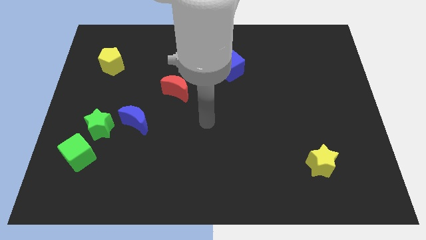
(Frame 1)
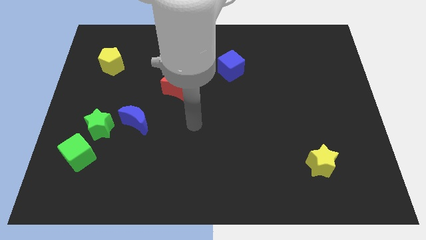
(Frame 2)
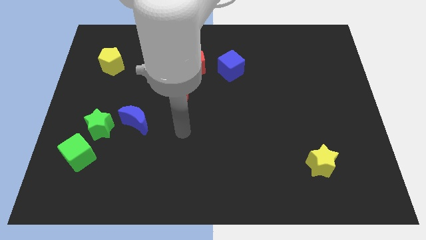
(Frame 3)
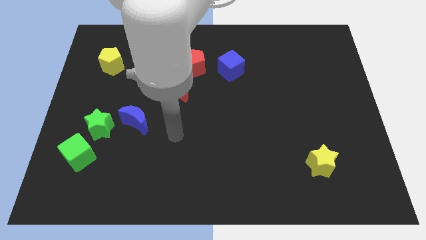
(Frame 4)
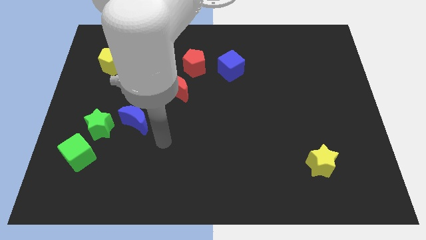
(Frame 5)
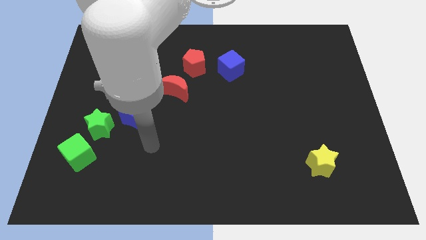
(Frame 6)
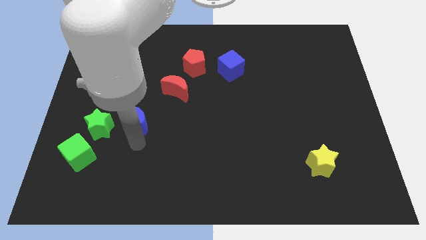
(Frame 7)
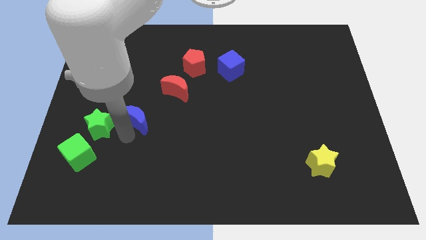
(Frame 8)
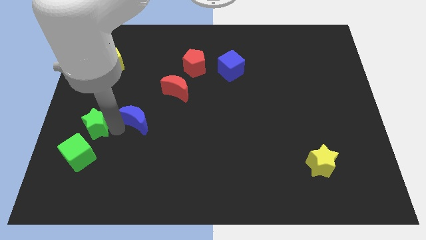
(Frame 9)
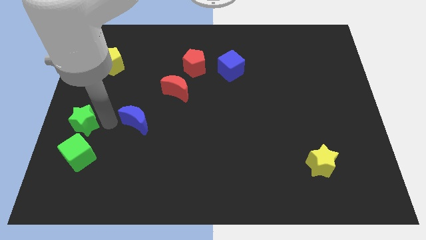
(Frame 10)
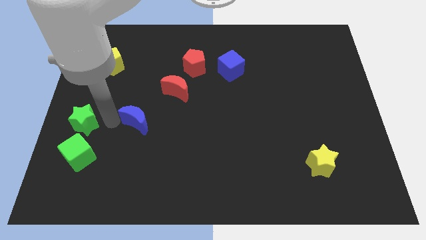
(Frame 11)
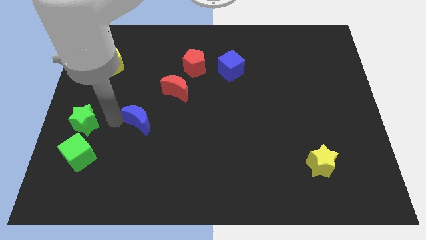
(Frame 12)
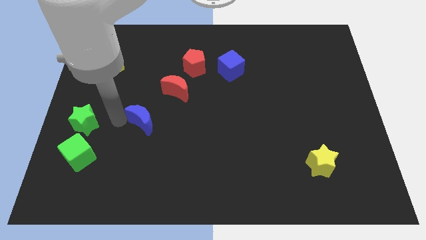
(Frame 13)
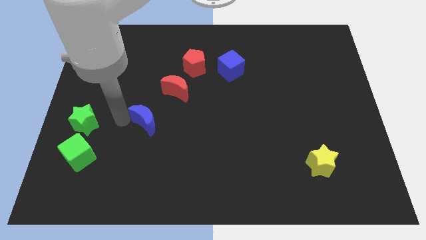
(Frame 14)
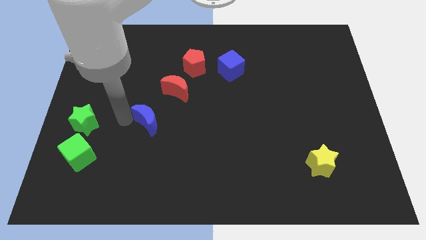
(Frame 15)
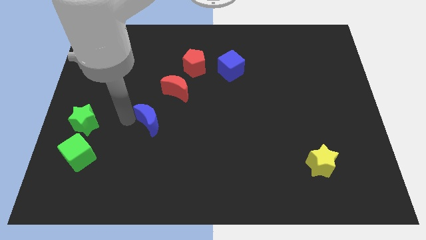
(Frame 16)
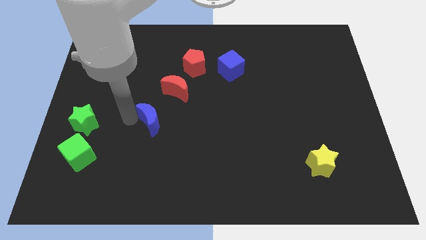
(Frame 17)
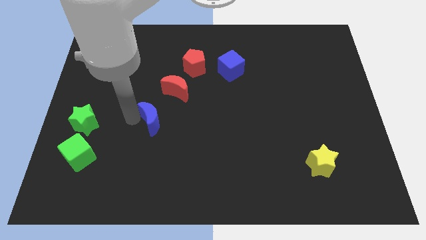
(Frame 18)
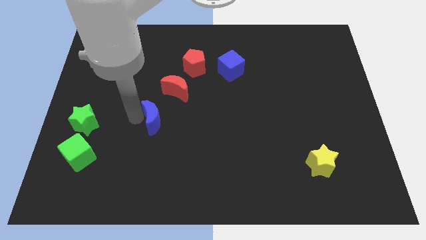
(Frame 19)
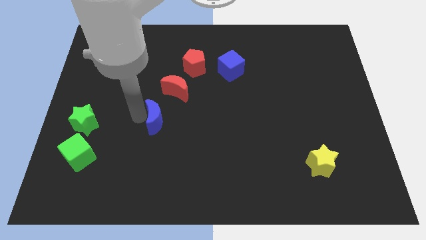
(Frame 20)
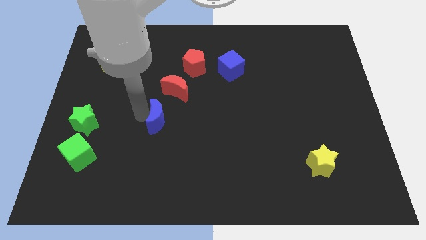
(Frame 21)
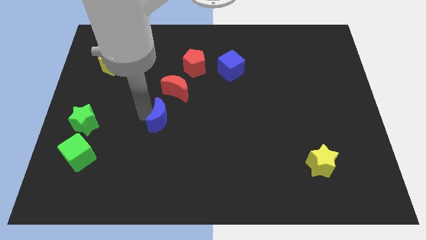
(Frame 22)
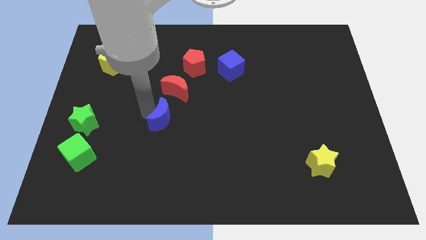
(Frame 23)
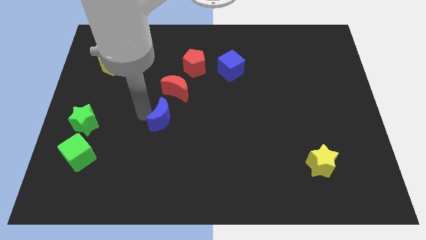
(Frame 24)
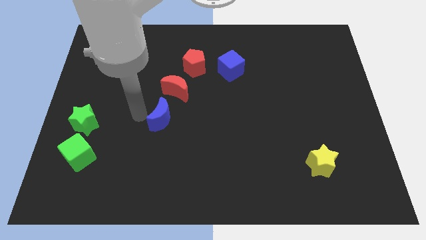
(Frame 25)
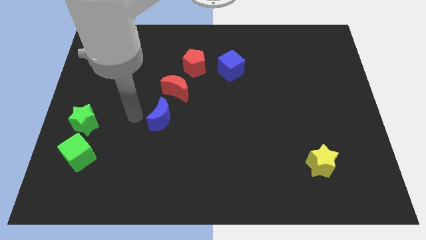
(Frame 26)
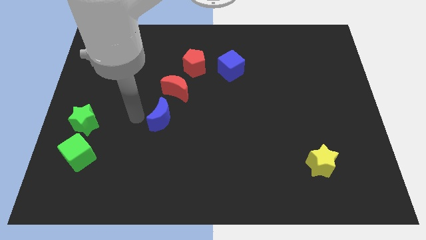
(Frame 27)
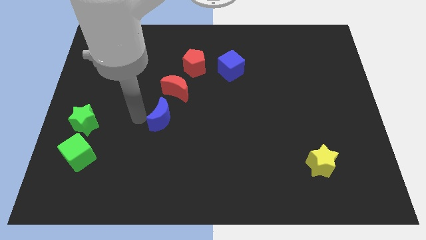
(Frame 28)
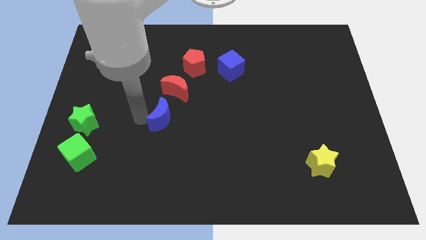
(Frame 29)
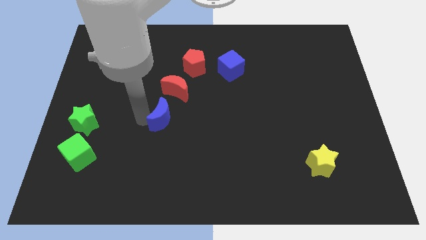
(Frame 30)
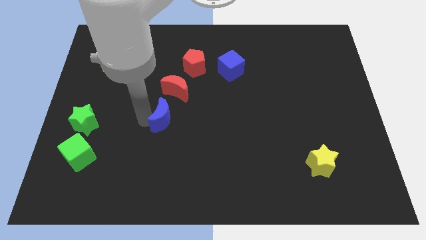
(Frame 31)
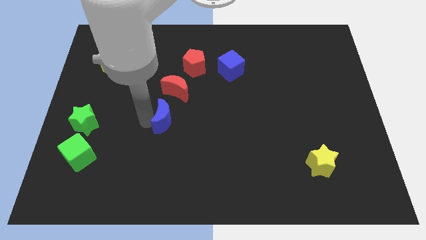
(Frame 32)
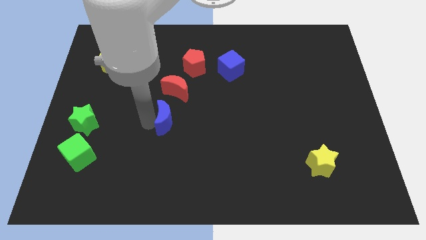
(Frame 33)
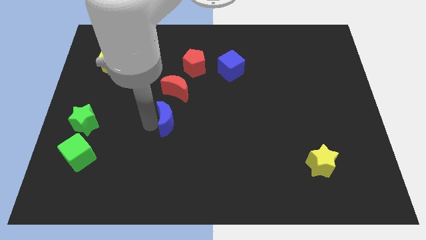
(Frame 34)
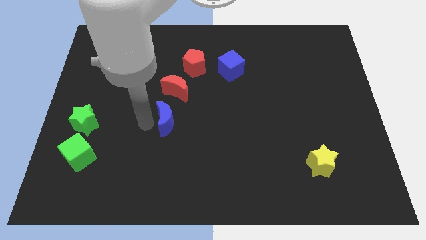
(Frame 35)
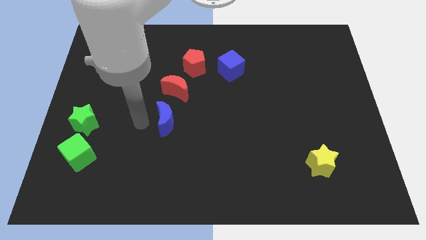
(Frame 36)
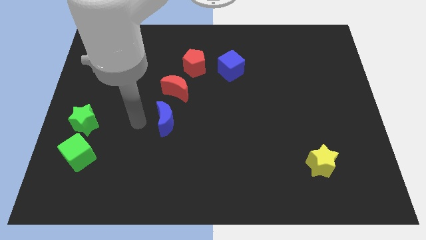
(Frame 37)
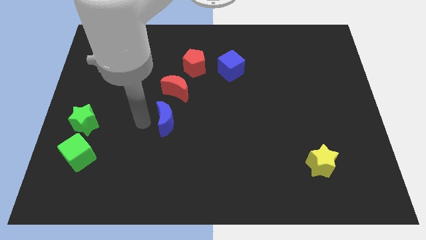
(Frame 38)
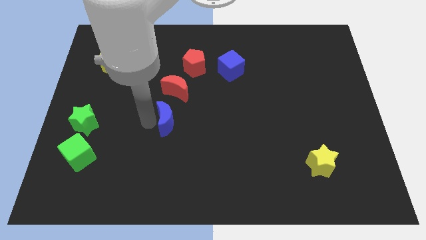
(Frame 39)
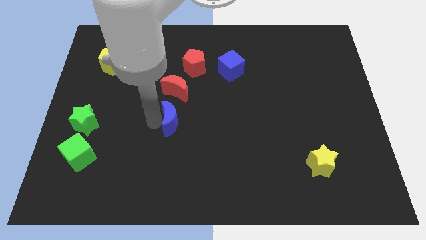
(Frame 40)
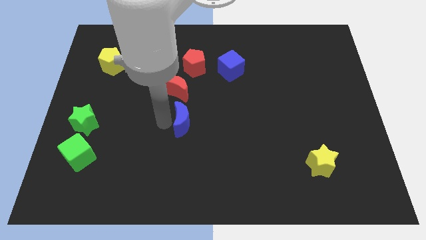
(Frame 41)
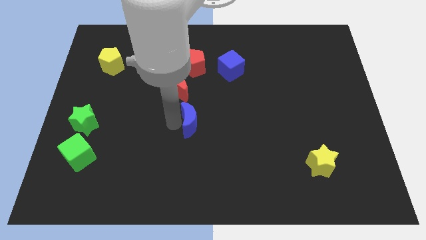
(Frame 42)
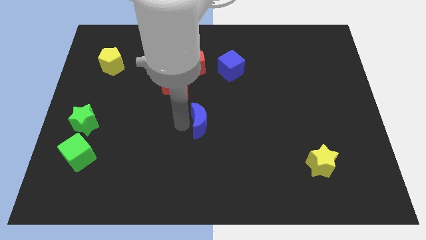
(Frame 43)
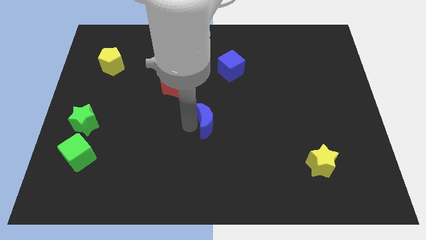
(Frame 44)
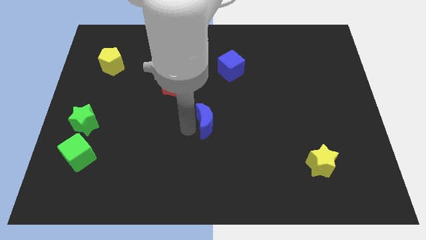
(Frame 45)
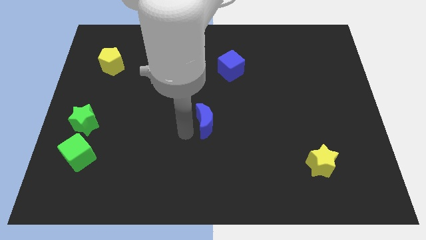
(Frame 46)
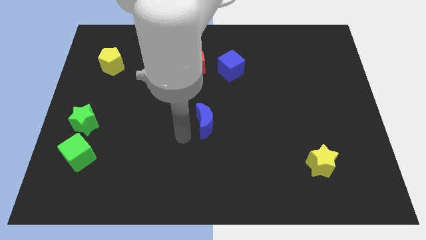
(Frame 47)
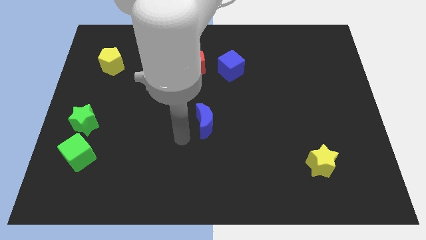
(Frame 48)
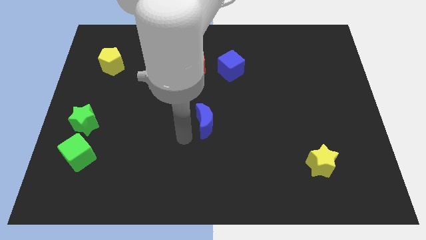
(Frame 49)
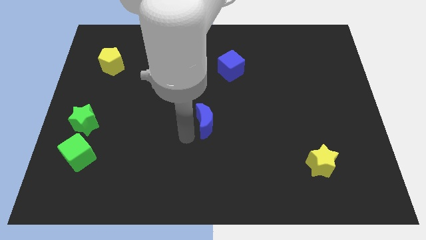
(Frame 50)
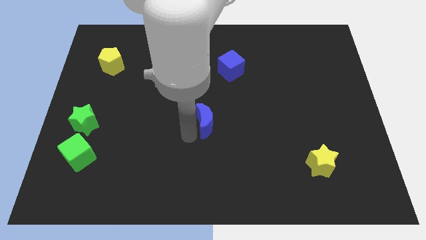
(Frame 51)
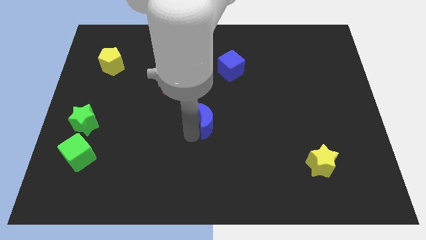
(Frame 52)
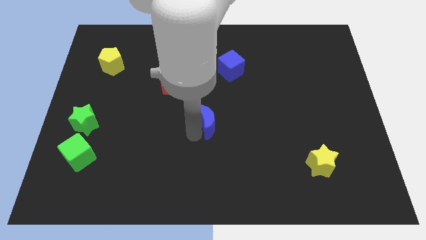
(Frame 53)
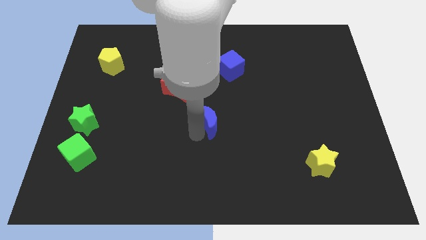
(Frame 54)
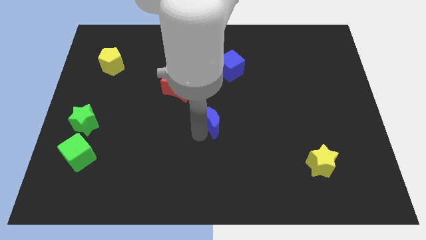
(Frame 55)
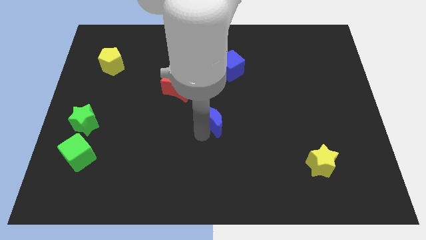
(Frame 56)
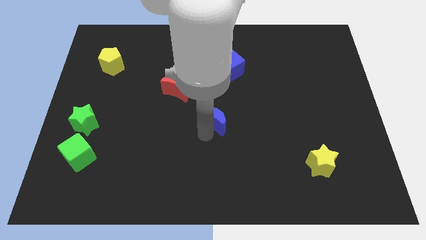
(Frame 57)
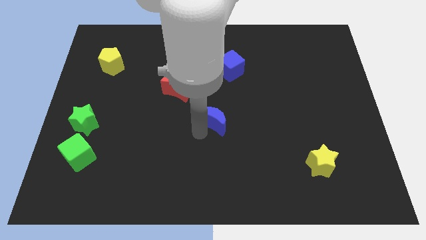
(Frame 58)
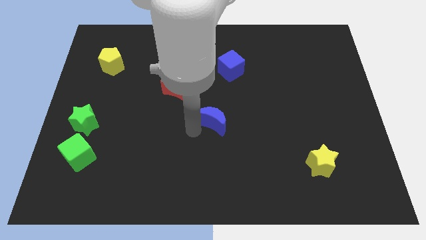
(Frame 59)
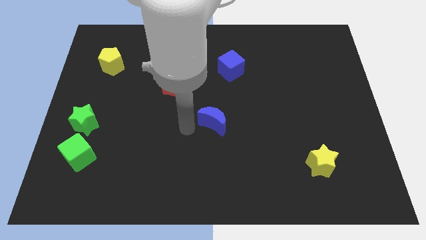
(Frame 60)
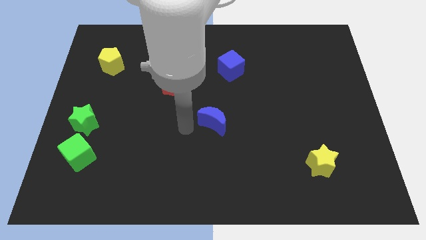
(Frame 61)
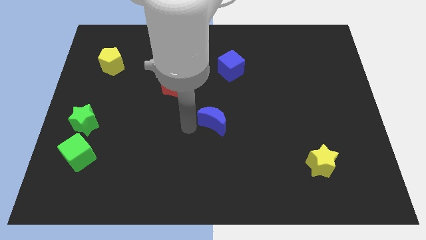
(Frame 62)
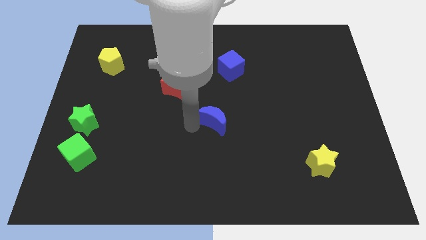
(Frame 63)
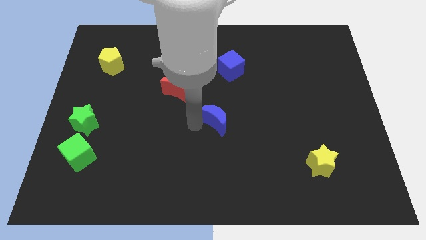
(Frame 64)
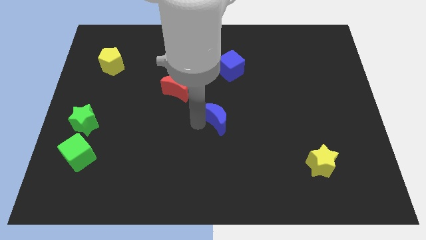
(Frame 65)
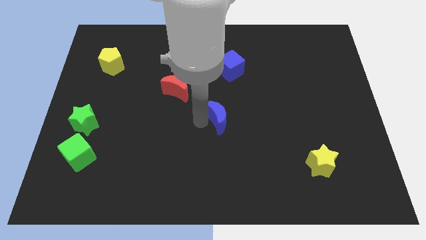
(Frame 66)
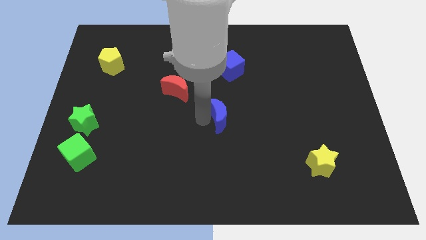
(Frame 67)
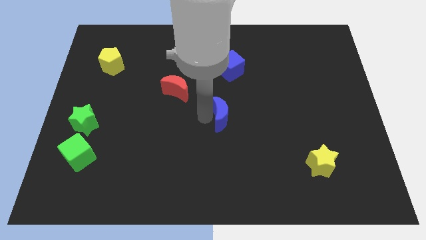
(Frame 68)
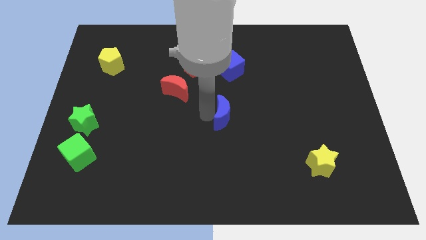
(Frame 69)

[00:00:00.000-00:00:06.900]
push the blue moon to the right
